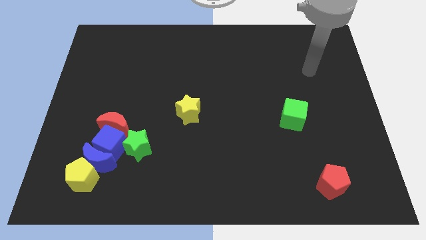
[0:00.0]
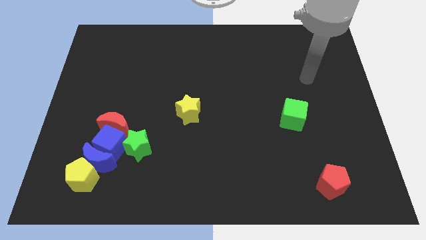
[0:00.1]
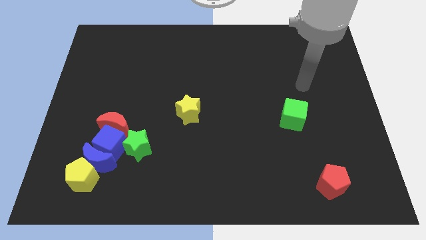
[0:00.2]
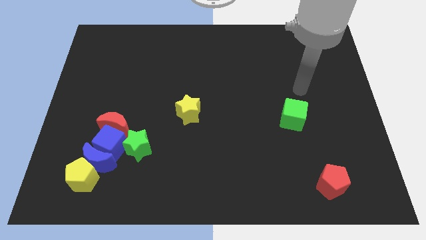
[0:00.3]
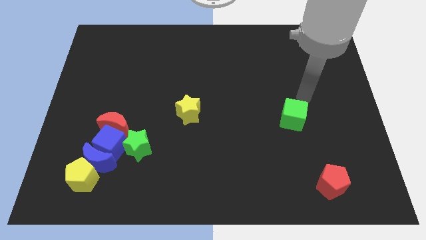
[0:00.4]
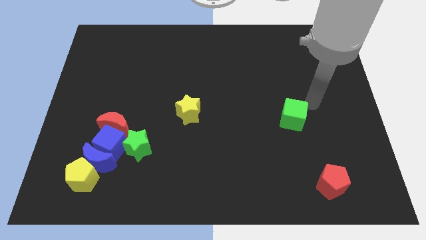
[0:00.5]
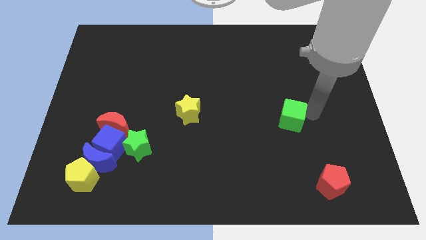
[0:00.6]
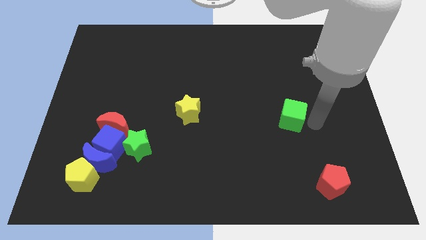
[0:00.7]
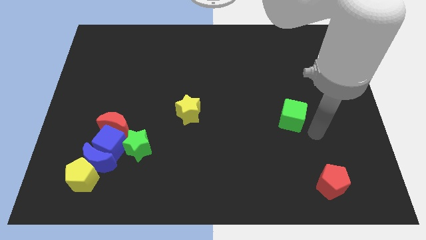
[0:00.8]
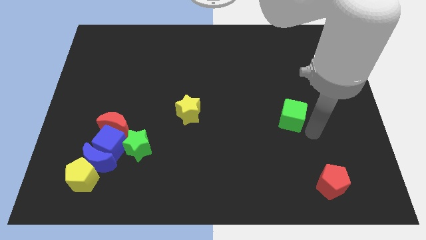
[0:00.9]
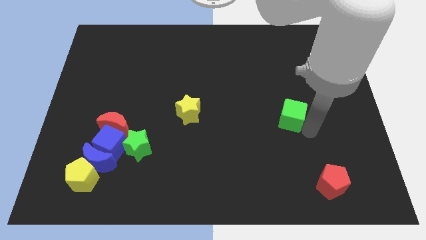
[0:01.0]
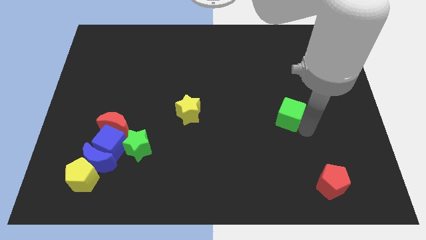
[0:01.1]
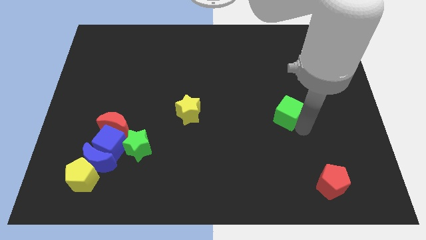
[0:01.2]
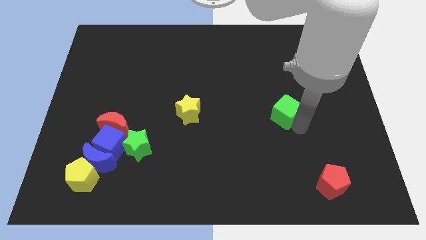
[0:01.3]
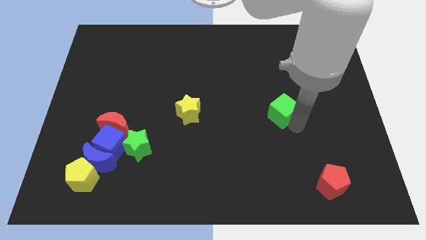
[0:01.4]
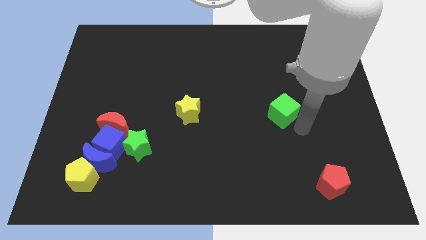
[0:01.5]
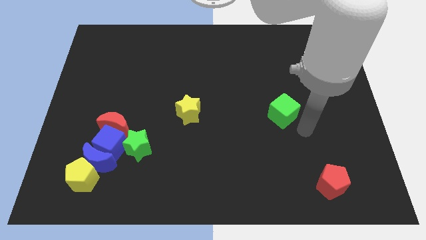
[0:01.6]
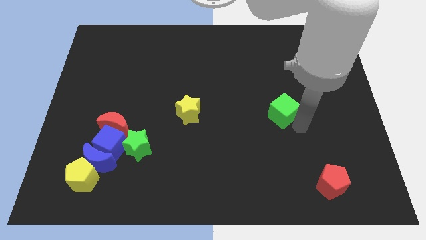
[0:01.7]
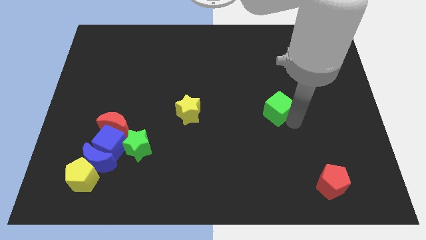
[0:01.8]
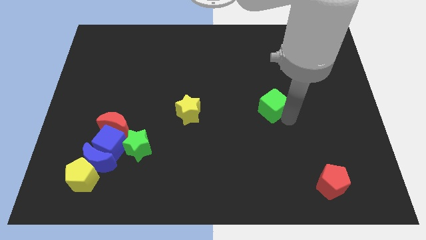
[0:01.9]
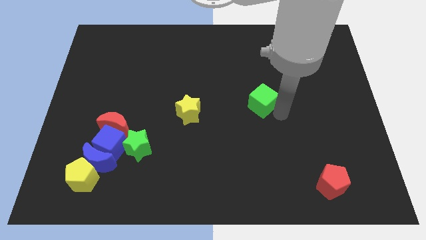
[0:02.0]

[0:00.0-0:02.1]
push the green cube somewhat up and left diagonally

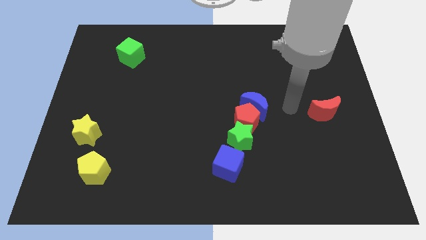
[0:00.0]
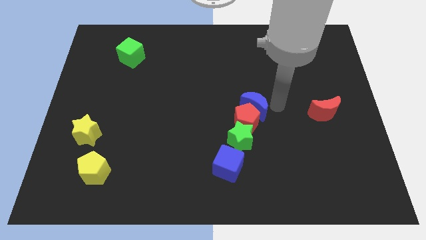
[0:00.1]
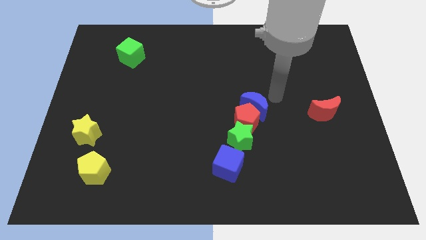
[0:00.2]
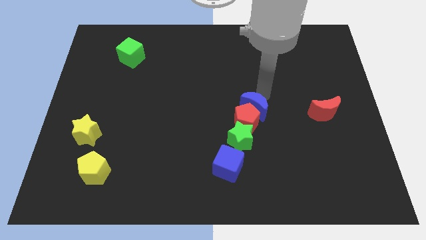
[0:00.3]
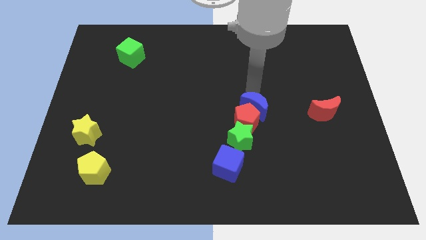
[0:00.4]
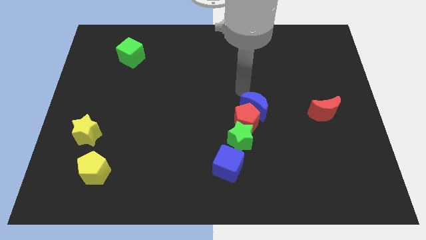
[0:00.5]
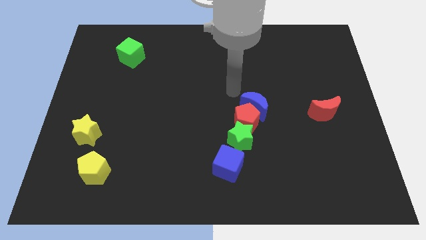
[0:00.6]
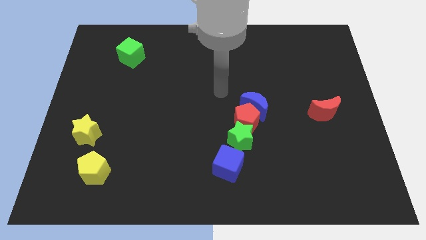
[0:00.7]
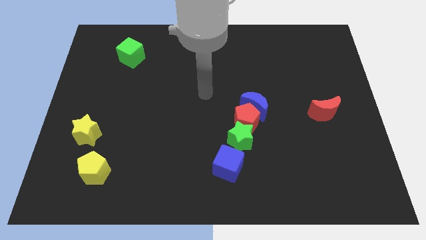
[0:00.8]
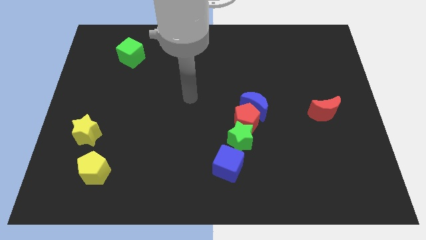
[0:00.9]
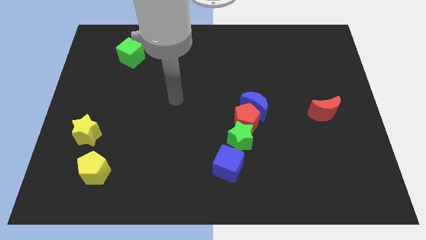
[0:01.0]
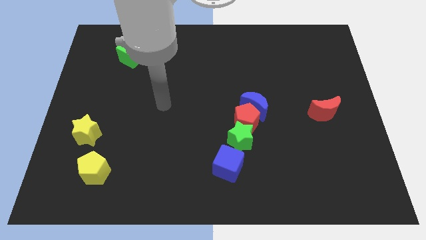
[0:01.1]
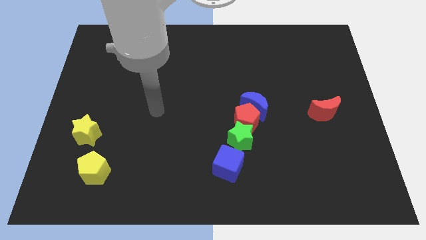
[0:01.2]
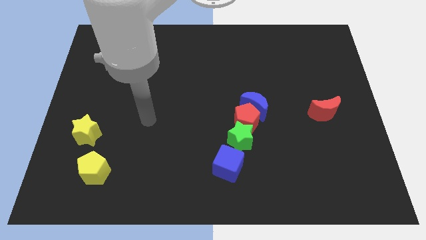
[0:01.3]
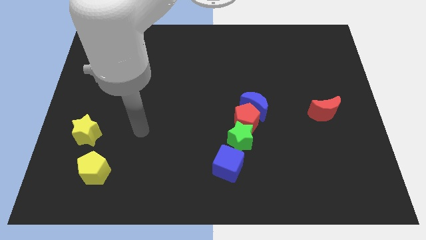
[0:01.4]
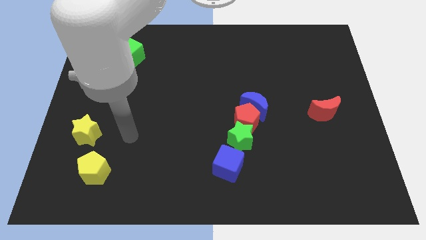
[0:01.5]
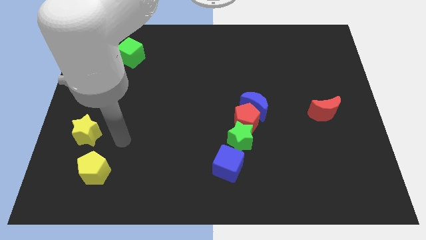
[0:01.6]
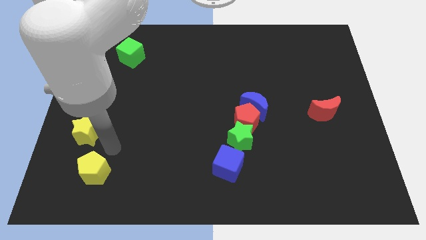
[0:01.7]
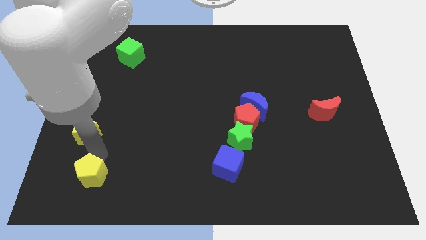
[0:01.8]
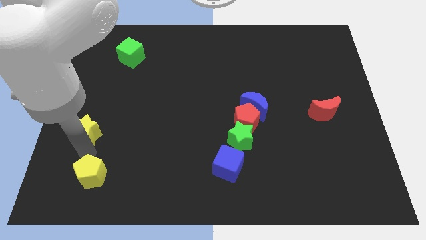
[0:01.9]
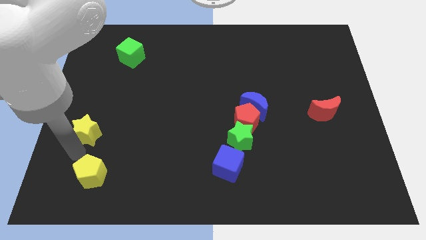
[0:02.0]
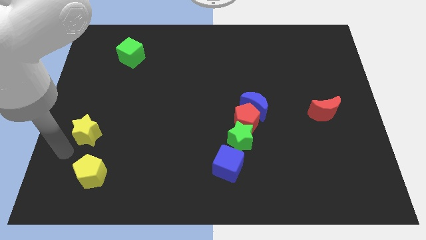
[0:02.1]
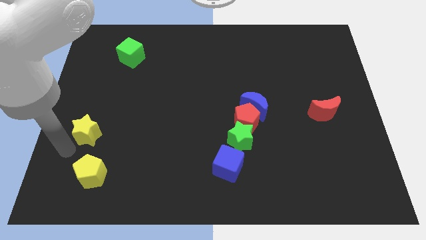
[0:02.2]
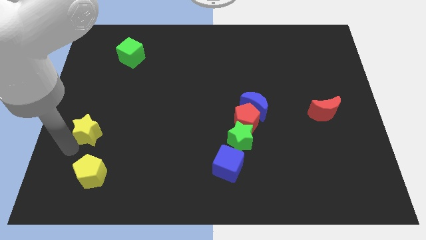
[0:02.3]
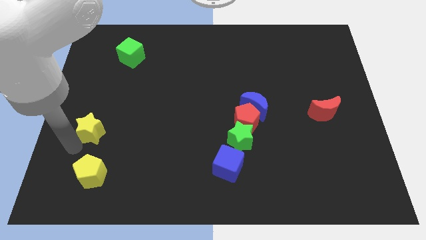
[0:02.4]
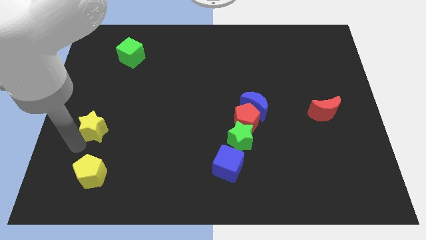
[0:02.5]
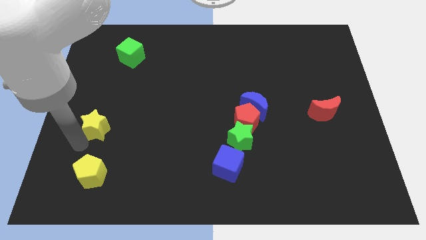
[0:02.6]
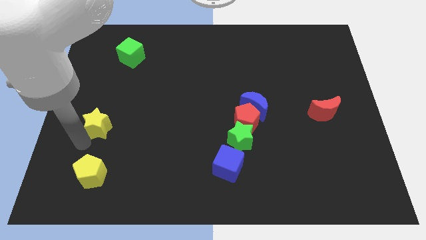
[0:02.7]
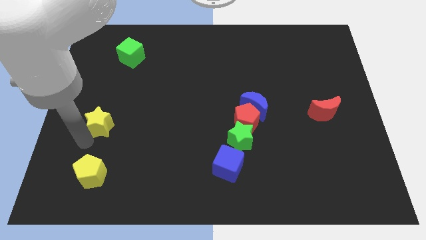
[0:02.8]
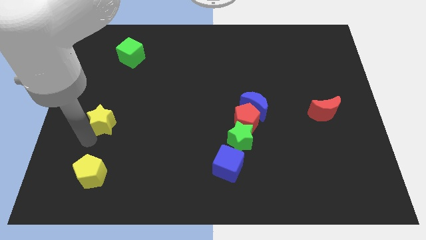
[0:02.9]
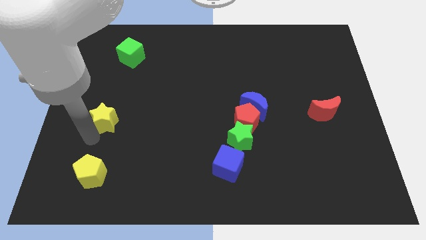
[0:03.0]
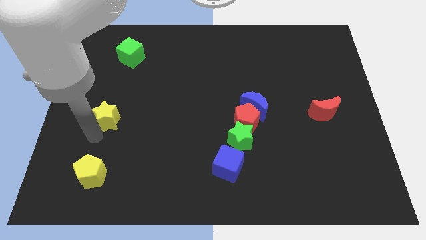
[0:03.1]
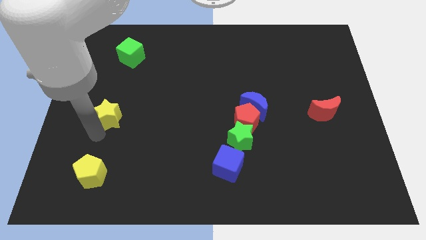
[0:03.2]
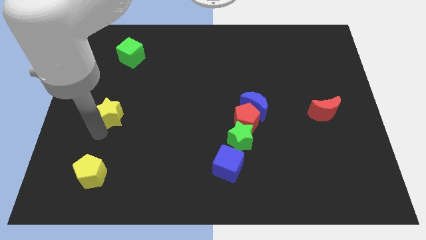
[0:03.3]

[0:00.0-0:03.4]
slightly slide the yellow star upwards and to the right

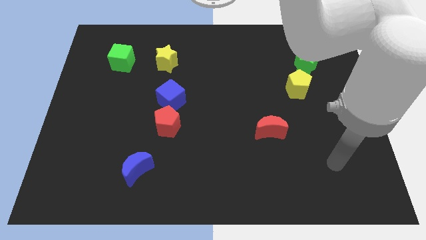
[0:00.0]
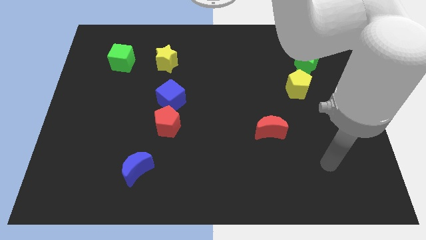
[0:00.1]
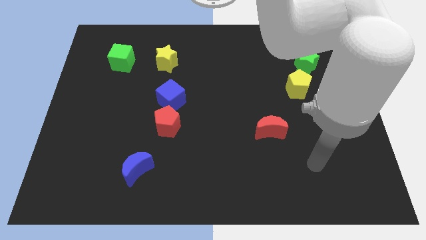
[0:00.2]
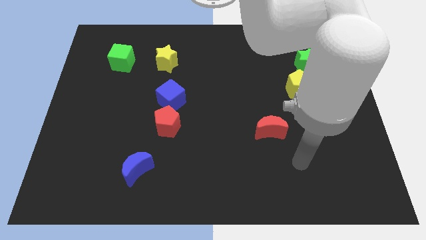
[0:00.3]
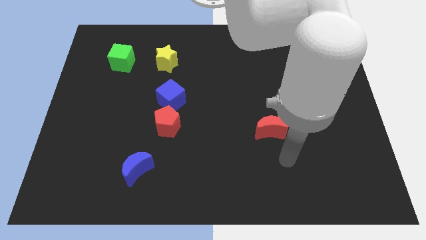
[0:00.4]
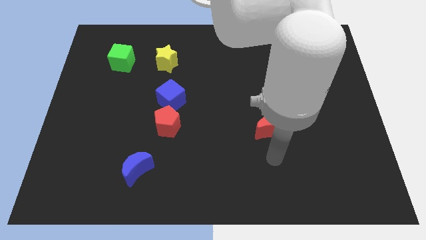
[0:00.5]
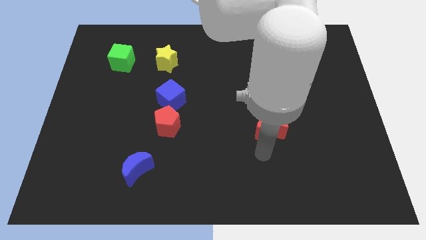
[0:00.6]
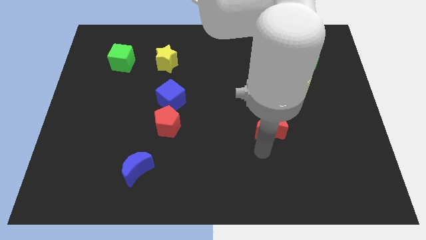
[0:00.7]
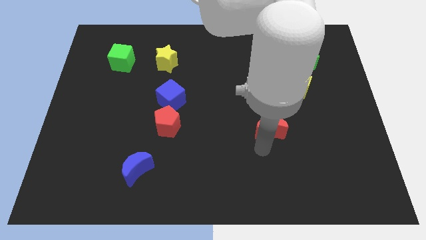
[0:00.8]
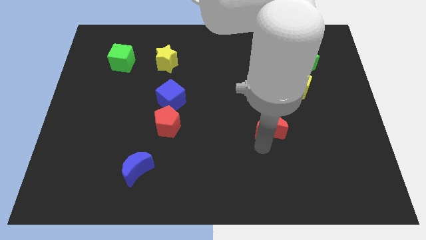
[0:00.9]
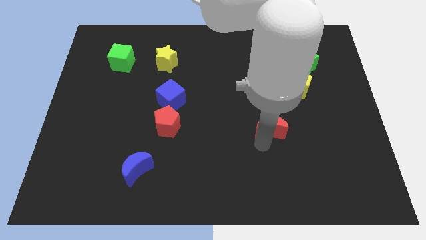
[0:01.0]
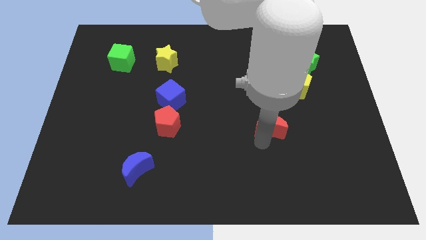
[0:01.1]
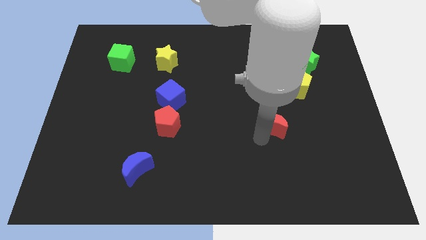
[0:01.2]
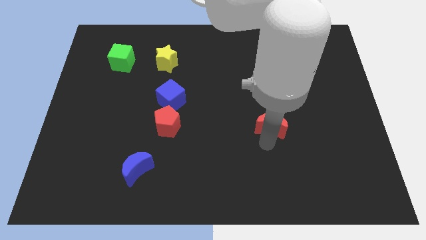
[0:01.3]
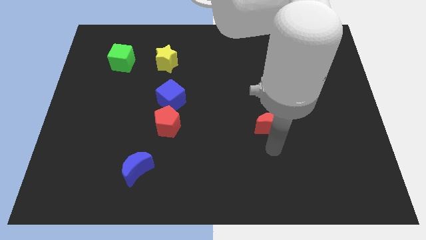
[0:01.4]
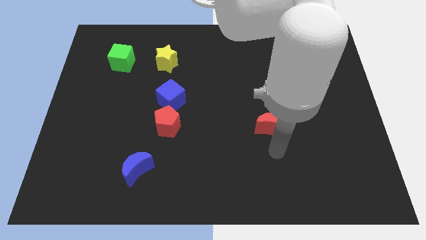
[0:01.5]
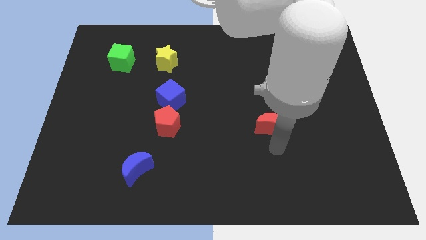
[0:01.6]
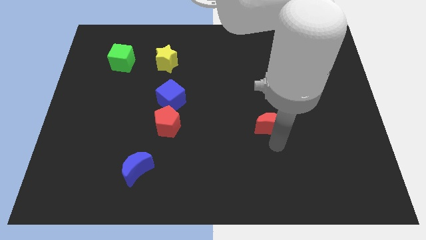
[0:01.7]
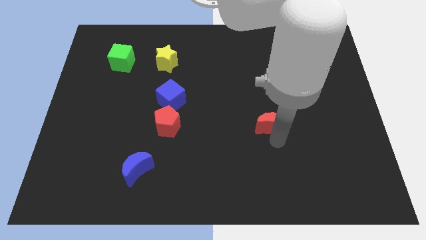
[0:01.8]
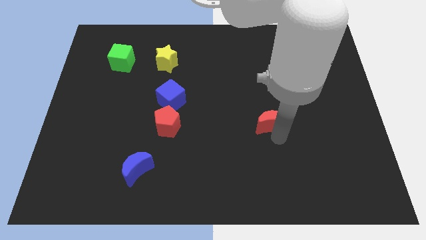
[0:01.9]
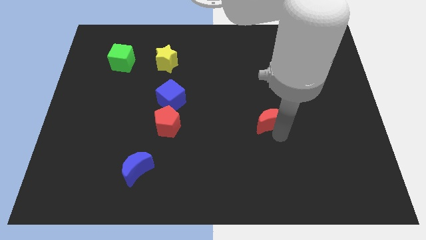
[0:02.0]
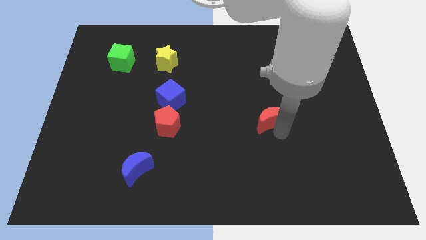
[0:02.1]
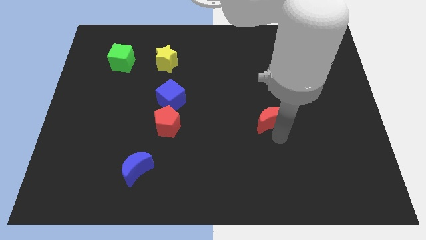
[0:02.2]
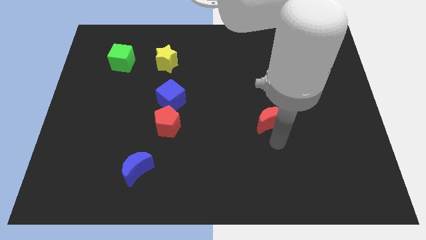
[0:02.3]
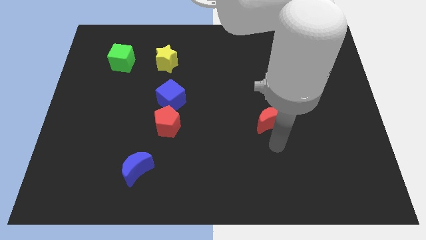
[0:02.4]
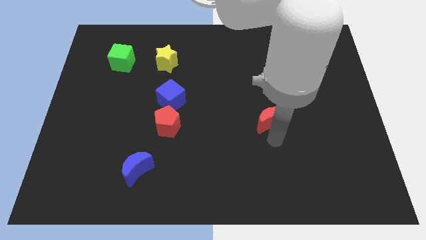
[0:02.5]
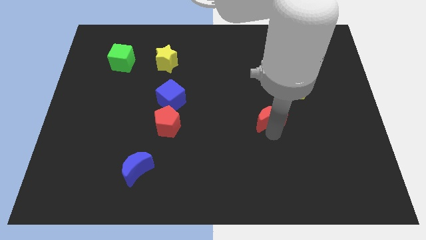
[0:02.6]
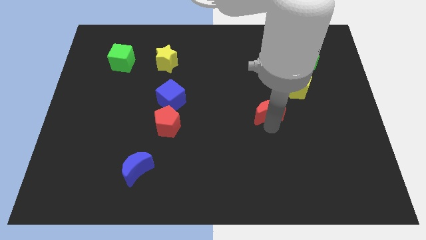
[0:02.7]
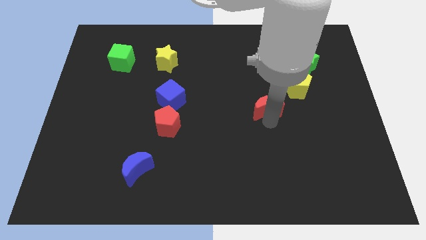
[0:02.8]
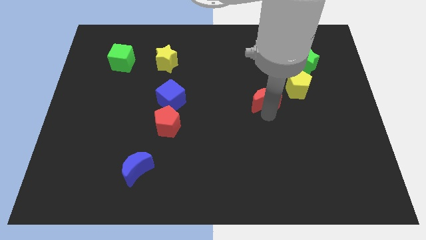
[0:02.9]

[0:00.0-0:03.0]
slide the red moon a little bit upwards
